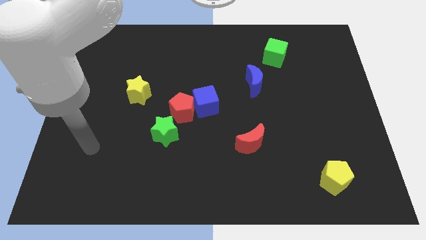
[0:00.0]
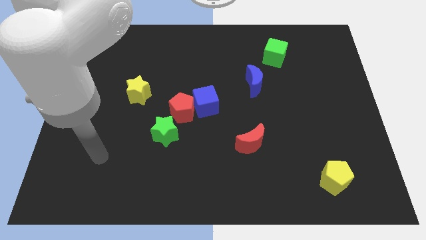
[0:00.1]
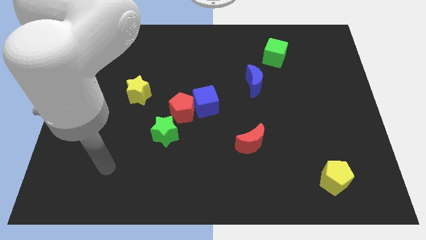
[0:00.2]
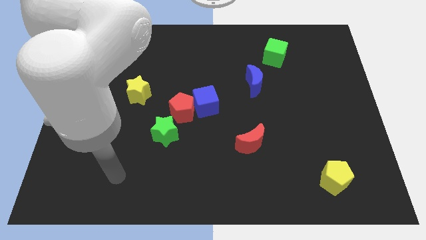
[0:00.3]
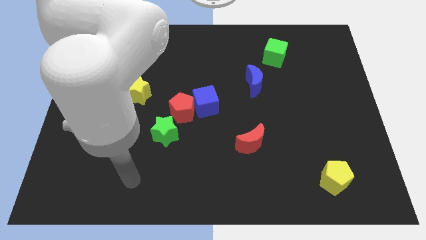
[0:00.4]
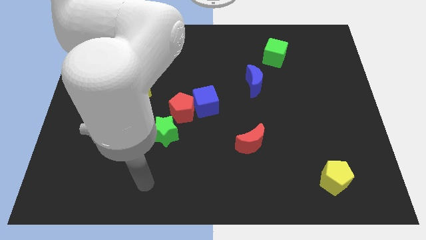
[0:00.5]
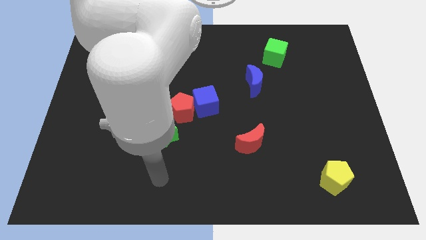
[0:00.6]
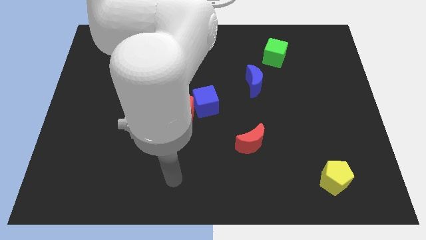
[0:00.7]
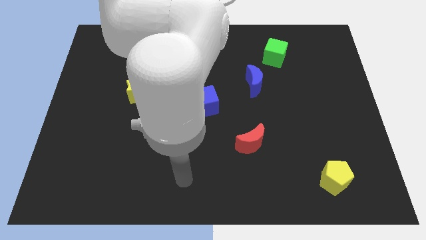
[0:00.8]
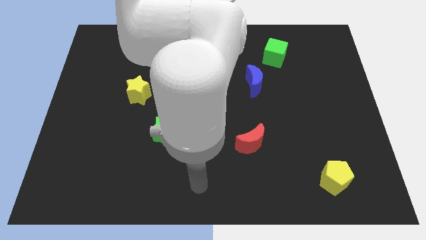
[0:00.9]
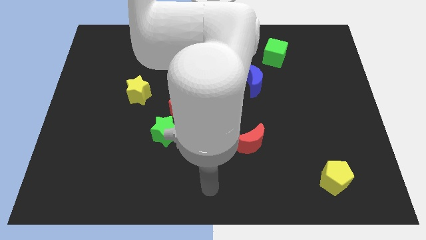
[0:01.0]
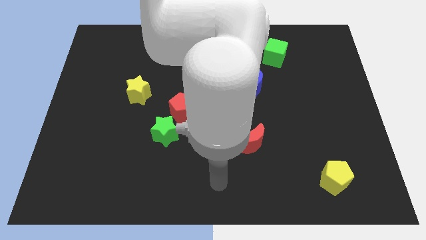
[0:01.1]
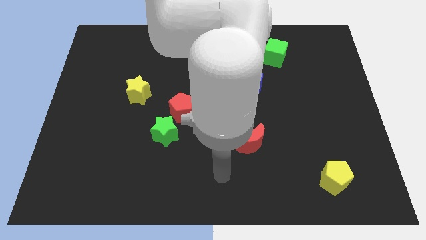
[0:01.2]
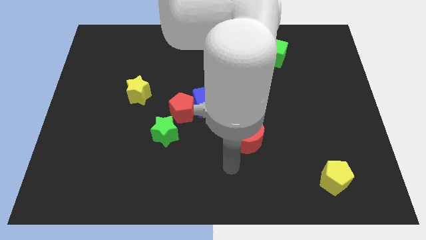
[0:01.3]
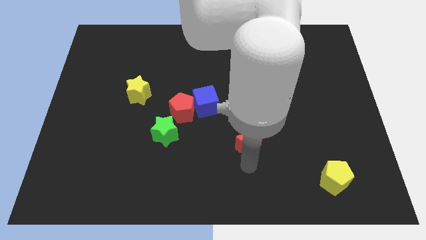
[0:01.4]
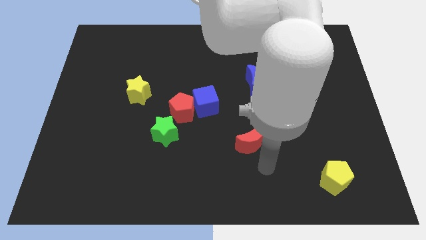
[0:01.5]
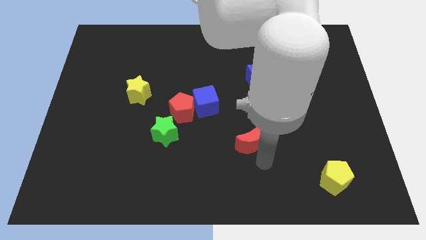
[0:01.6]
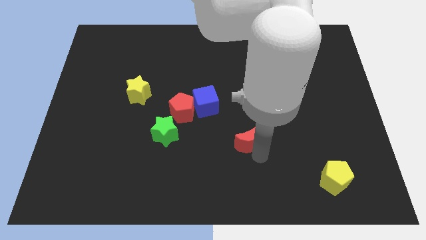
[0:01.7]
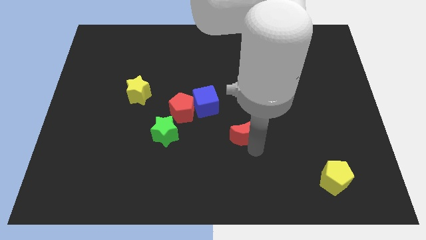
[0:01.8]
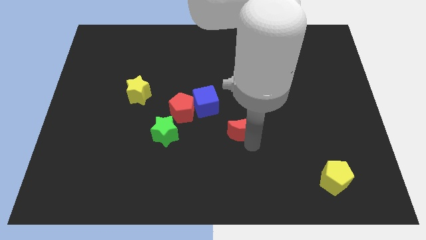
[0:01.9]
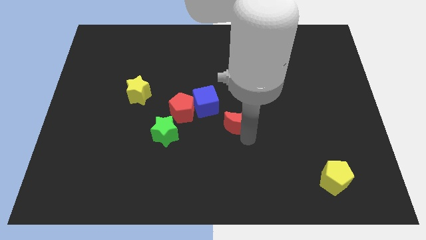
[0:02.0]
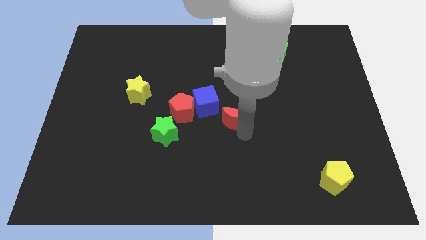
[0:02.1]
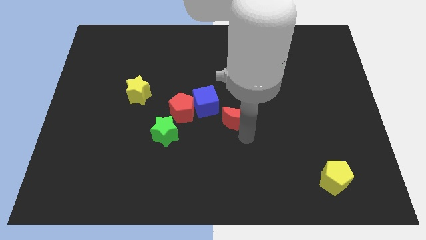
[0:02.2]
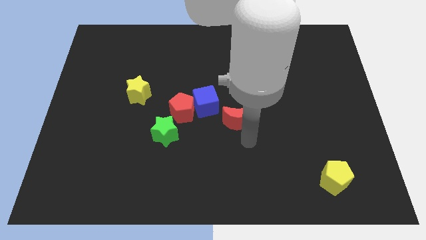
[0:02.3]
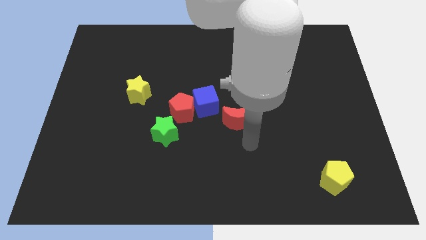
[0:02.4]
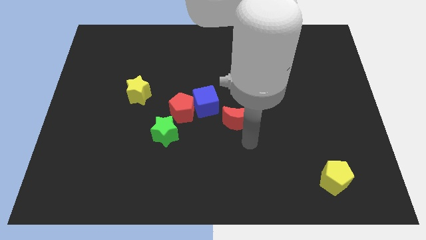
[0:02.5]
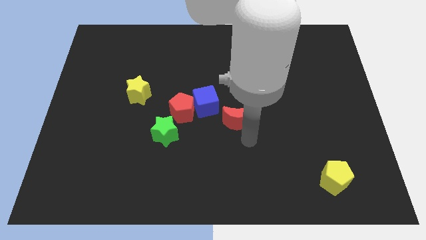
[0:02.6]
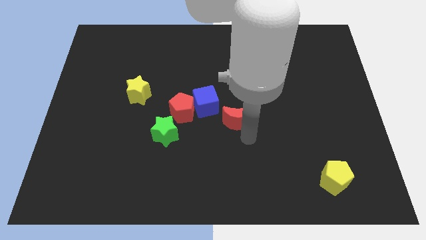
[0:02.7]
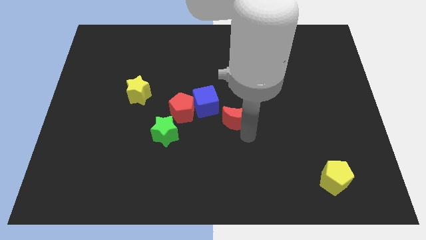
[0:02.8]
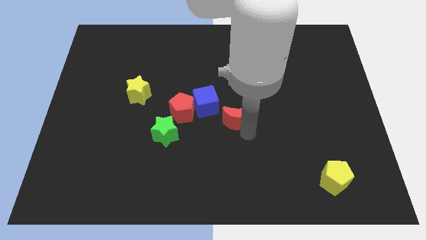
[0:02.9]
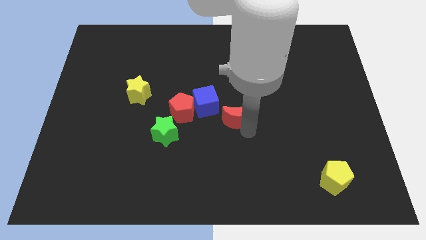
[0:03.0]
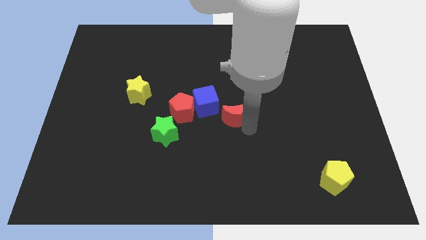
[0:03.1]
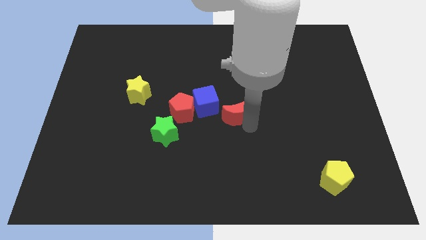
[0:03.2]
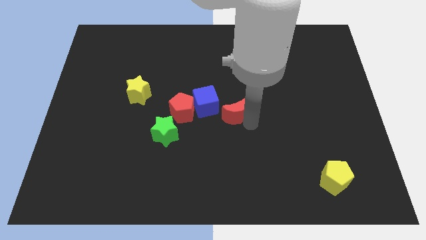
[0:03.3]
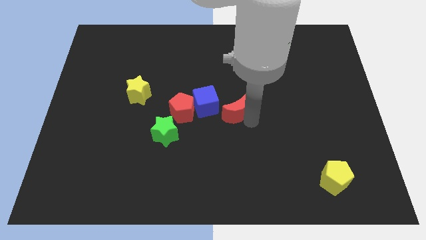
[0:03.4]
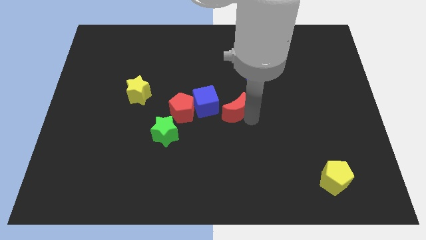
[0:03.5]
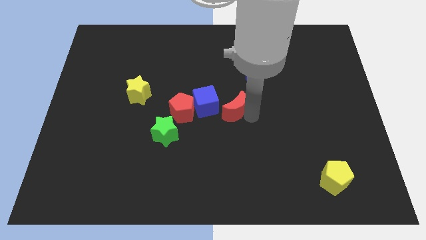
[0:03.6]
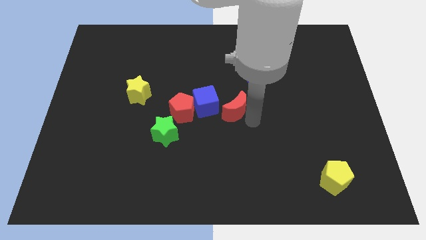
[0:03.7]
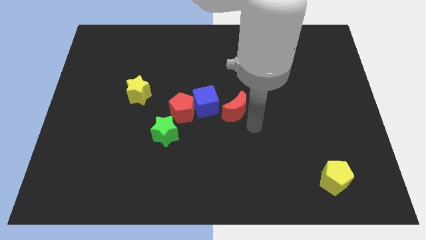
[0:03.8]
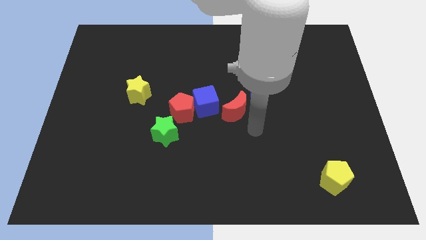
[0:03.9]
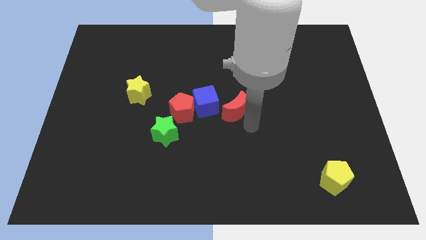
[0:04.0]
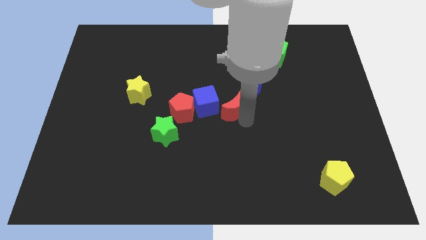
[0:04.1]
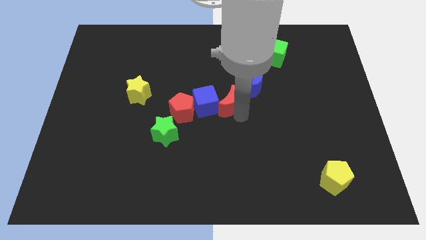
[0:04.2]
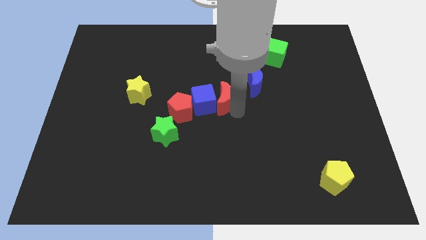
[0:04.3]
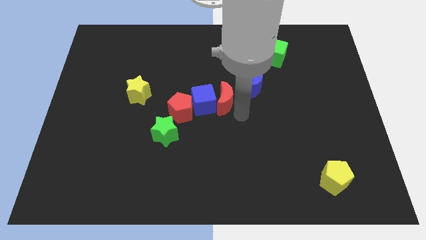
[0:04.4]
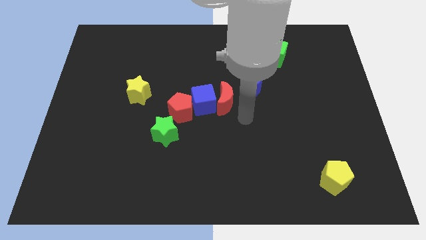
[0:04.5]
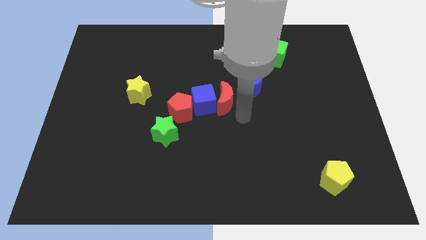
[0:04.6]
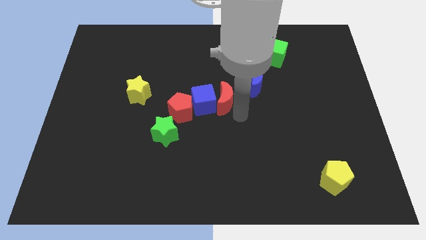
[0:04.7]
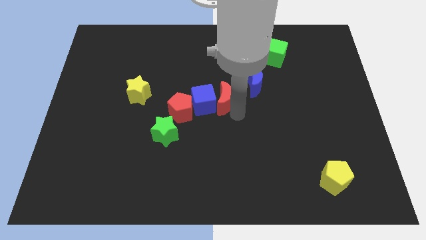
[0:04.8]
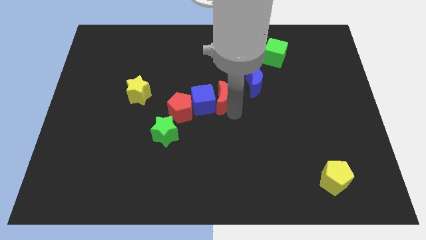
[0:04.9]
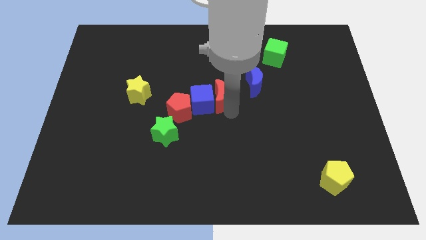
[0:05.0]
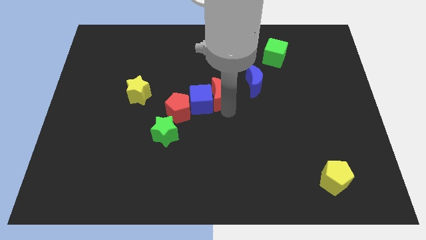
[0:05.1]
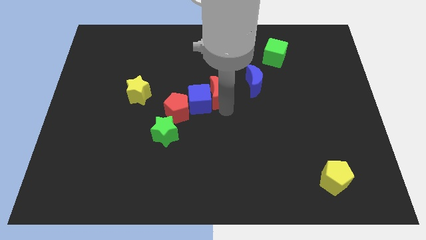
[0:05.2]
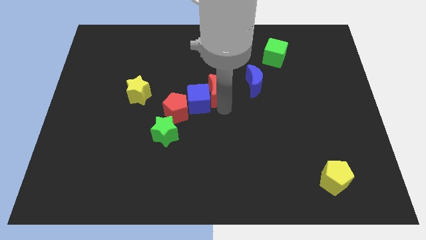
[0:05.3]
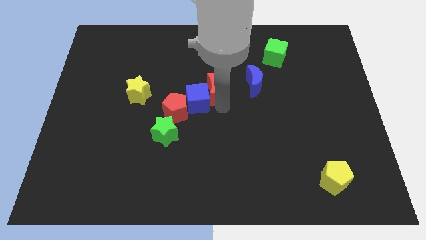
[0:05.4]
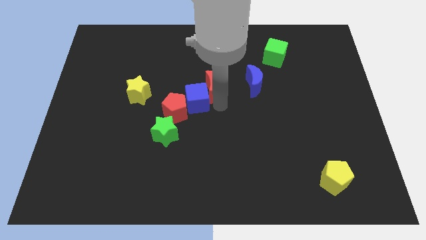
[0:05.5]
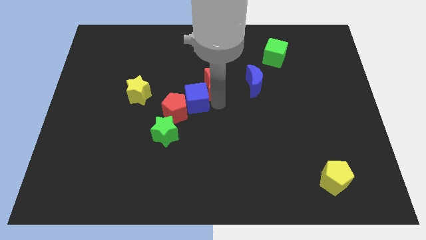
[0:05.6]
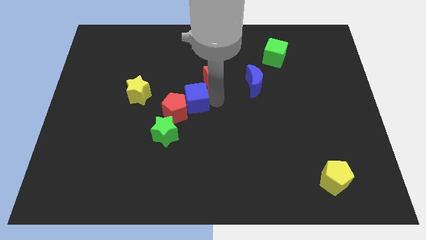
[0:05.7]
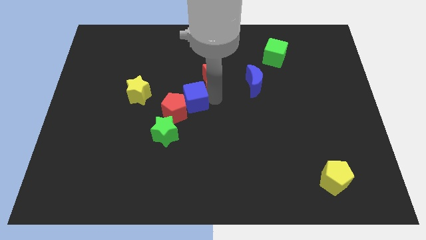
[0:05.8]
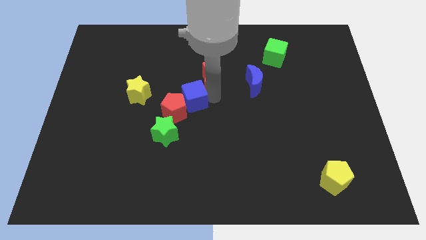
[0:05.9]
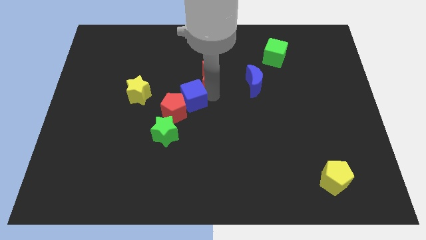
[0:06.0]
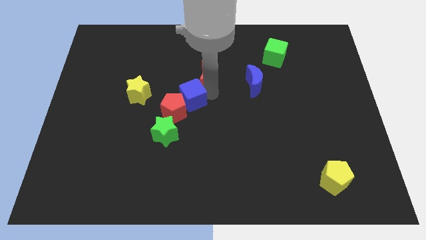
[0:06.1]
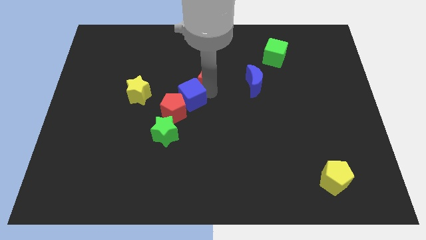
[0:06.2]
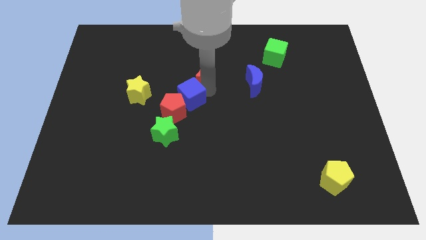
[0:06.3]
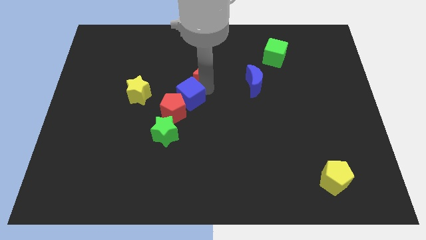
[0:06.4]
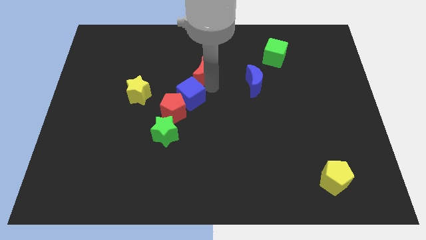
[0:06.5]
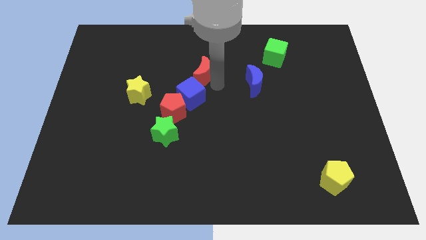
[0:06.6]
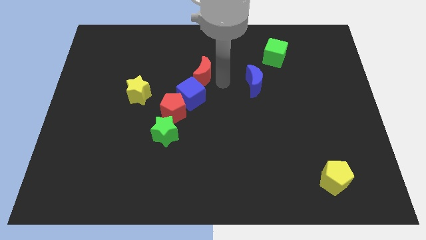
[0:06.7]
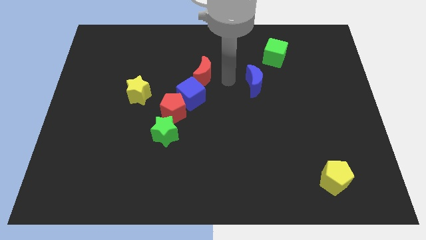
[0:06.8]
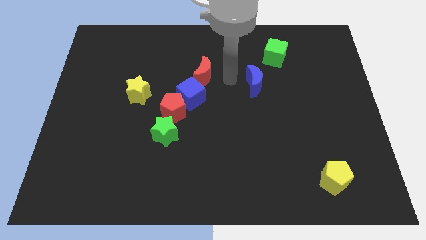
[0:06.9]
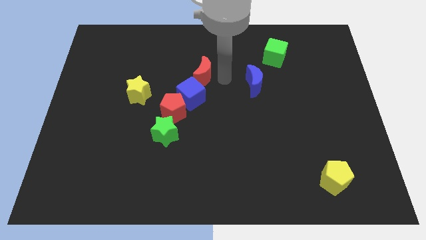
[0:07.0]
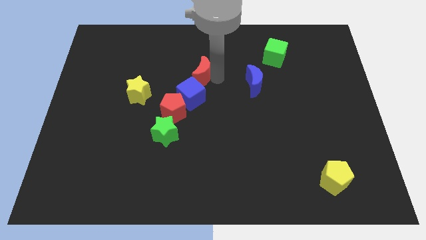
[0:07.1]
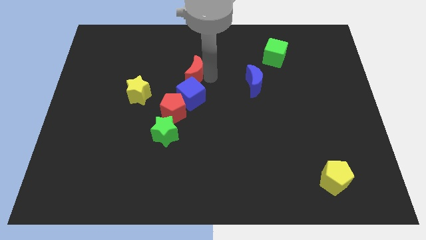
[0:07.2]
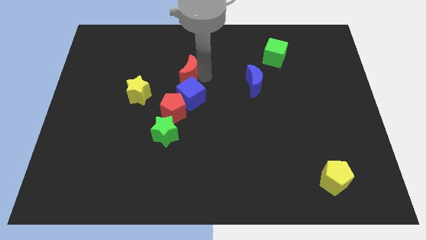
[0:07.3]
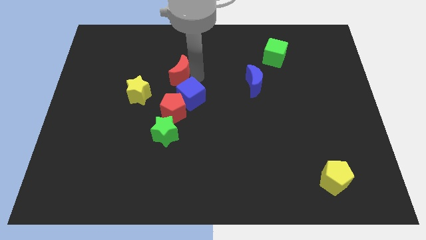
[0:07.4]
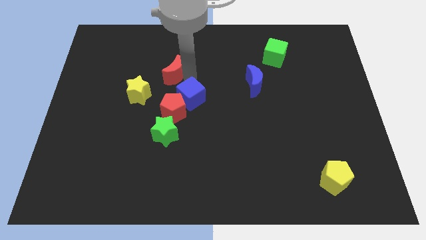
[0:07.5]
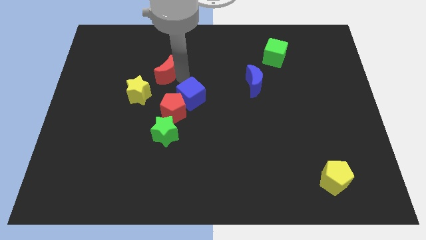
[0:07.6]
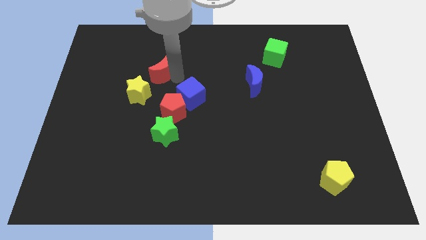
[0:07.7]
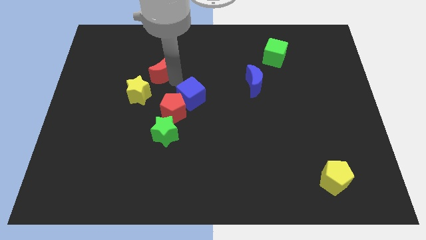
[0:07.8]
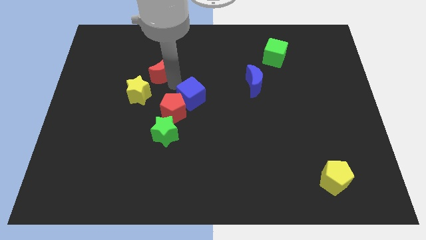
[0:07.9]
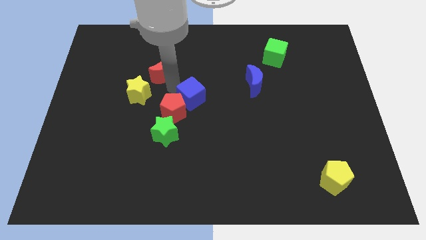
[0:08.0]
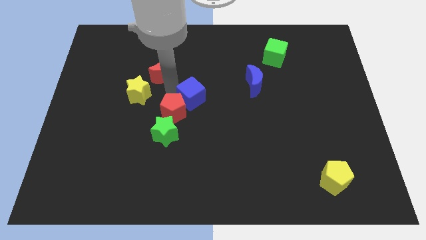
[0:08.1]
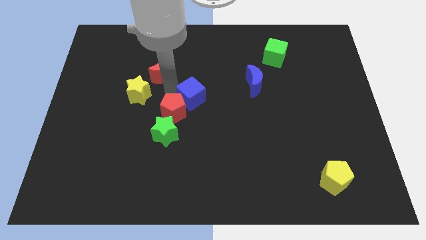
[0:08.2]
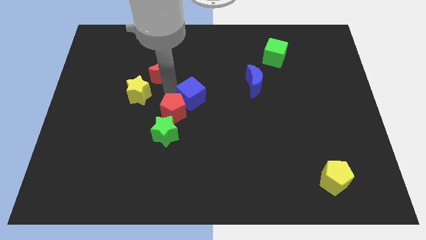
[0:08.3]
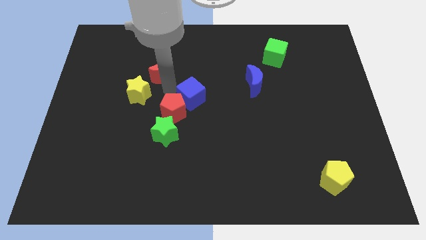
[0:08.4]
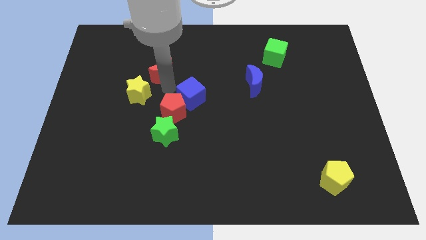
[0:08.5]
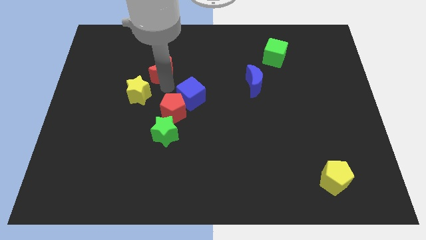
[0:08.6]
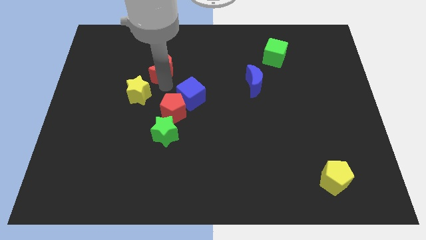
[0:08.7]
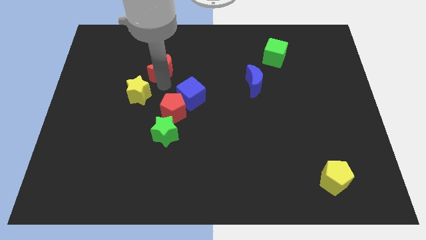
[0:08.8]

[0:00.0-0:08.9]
push the red moon to the top side of the yellow star
